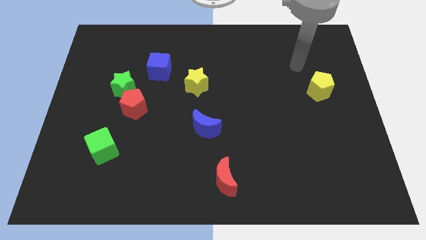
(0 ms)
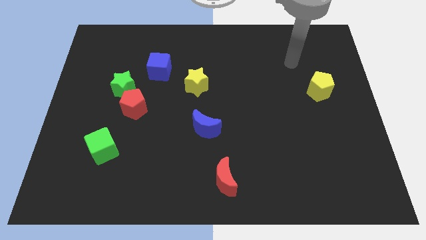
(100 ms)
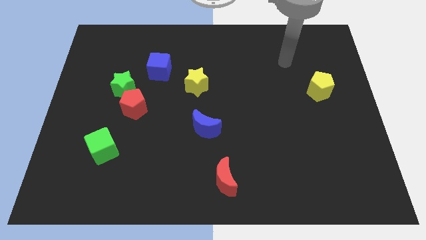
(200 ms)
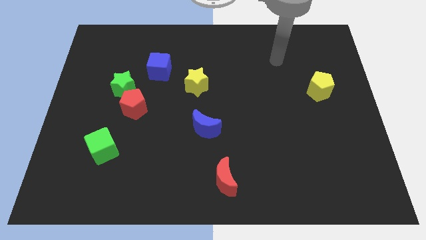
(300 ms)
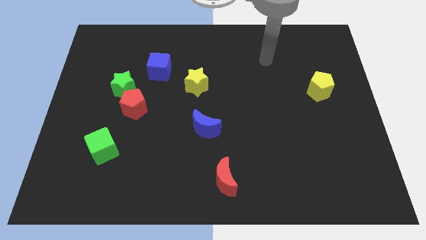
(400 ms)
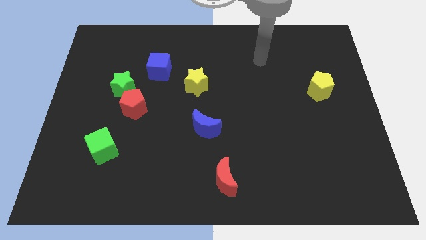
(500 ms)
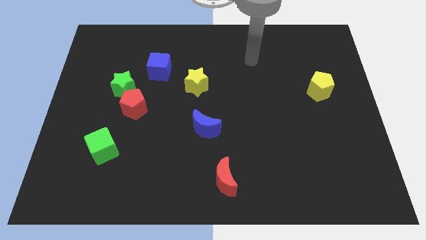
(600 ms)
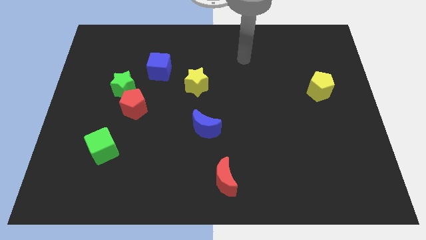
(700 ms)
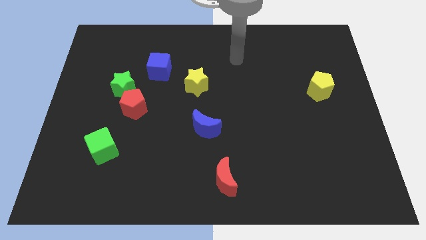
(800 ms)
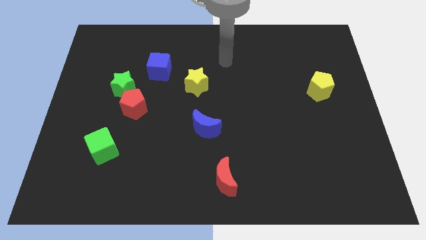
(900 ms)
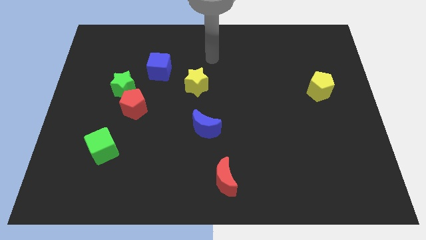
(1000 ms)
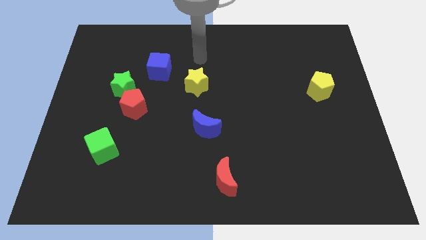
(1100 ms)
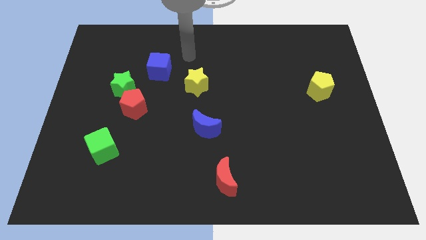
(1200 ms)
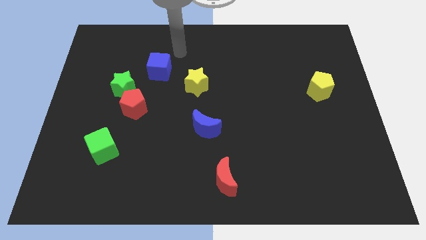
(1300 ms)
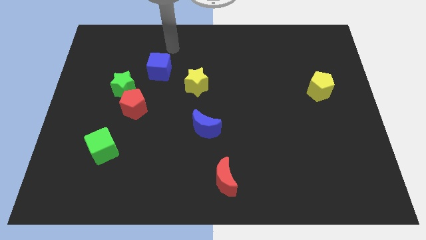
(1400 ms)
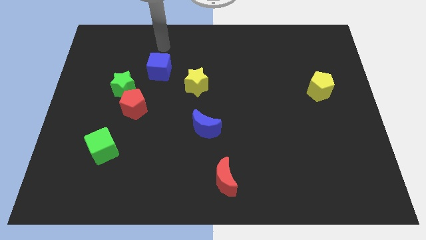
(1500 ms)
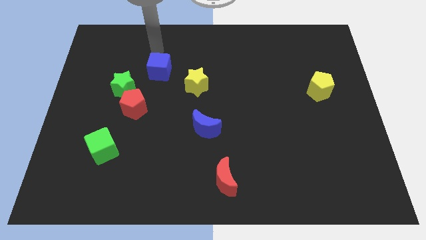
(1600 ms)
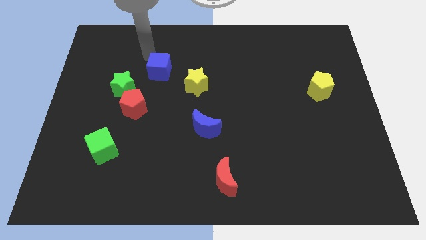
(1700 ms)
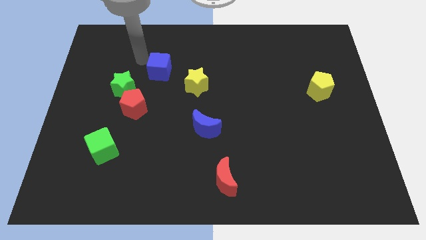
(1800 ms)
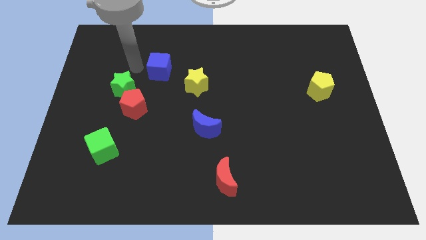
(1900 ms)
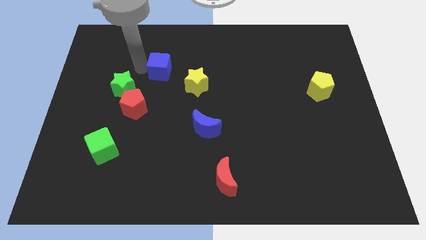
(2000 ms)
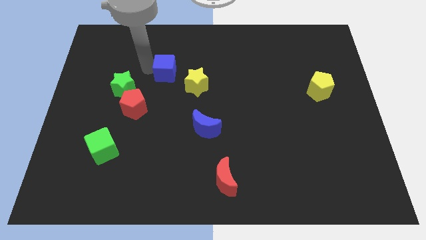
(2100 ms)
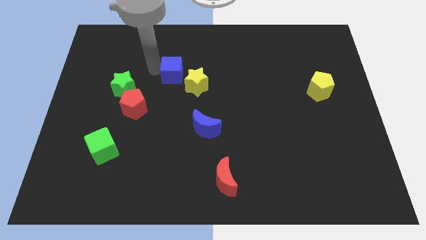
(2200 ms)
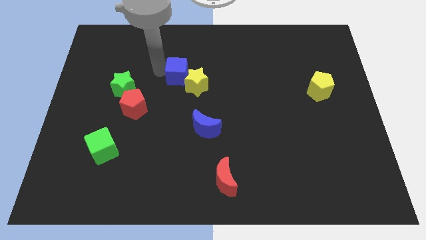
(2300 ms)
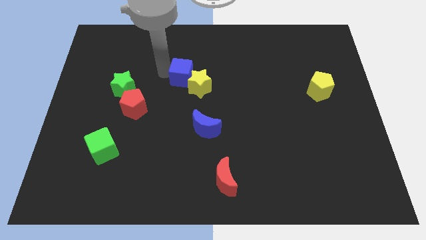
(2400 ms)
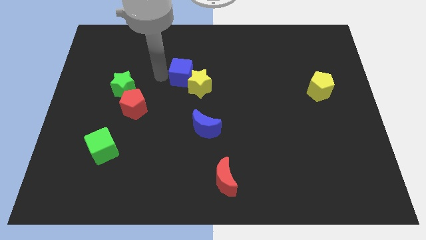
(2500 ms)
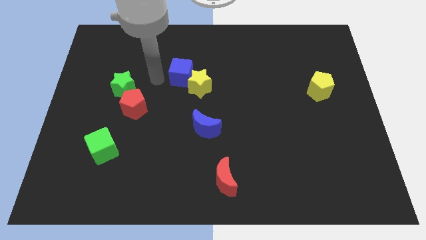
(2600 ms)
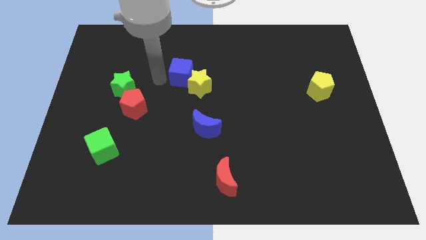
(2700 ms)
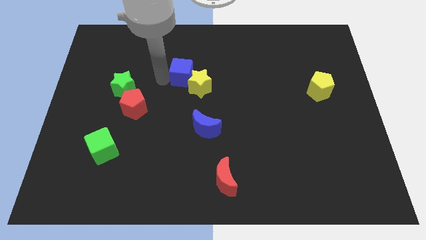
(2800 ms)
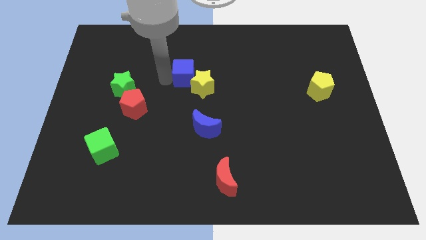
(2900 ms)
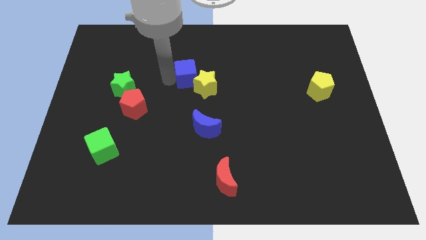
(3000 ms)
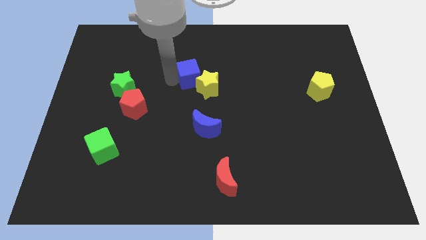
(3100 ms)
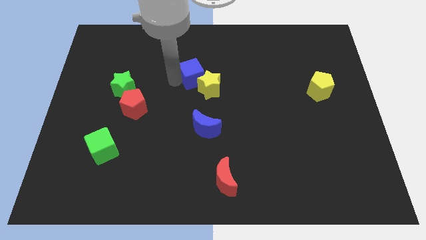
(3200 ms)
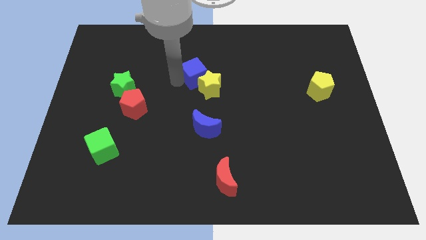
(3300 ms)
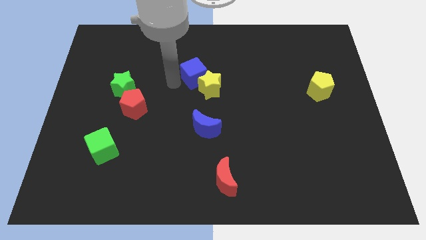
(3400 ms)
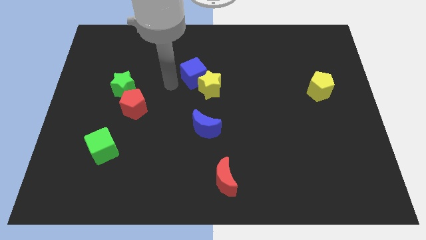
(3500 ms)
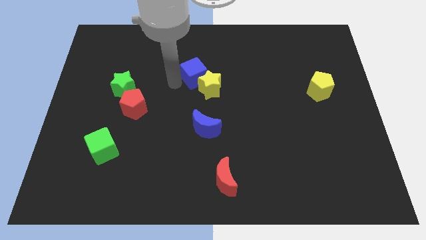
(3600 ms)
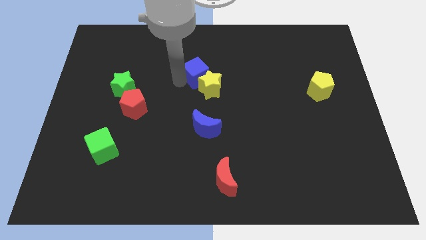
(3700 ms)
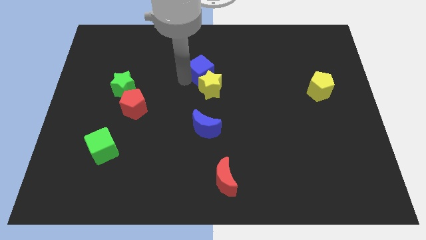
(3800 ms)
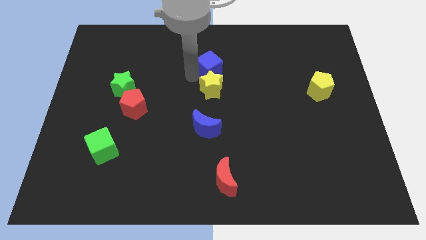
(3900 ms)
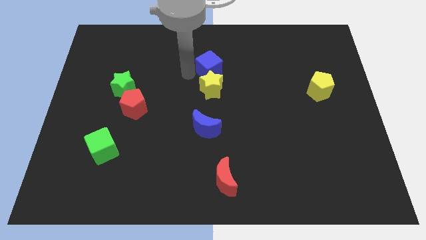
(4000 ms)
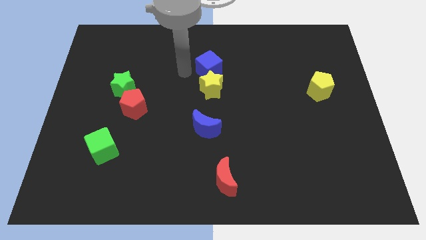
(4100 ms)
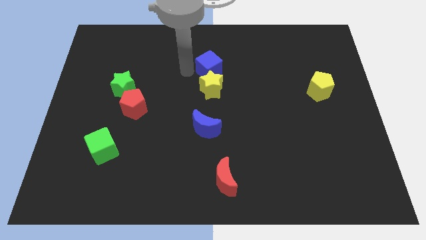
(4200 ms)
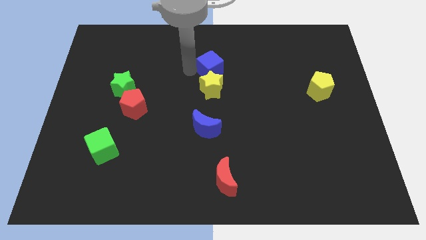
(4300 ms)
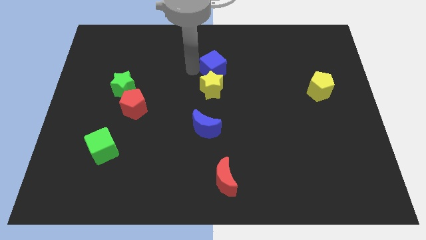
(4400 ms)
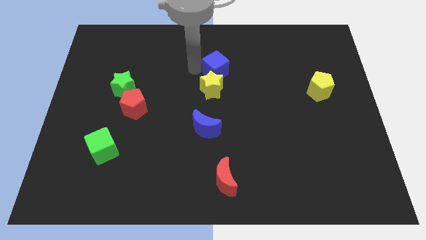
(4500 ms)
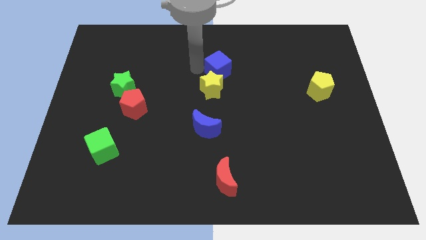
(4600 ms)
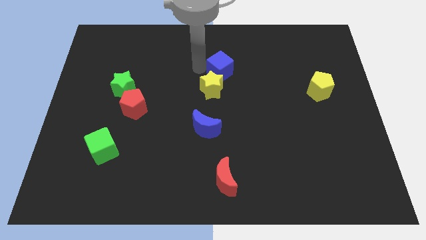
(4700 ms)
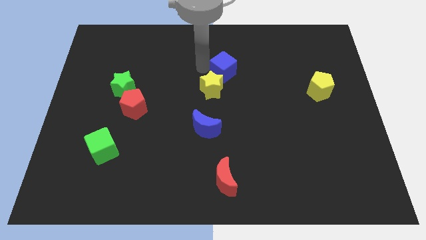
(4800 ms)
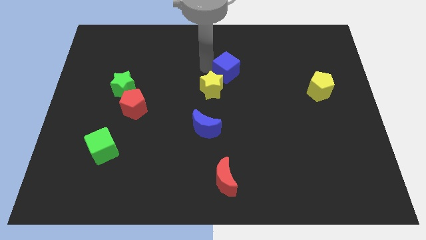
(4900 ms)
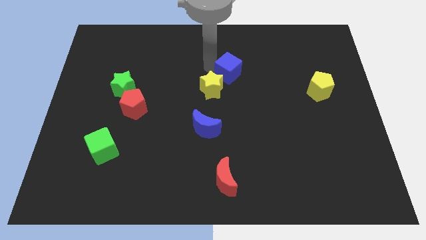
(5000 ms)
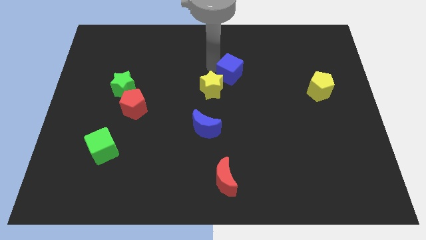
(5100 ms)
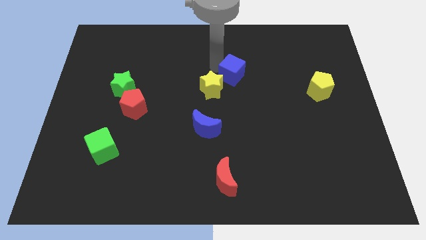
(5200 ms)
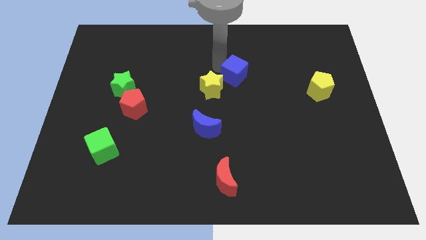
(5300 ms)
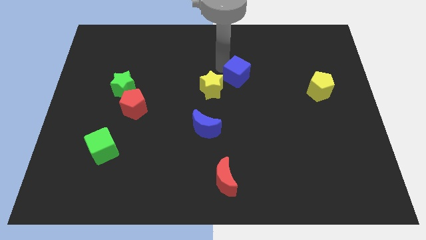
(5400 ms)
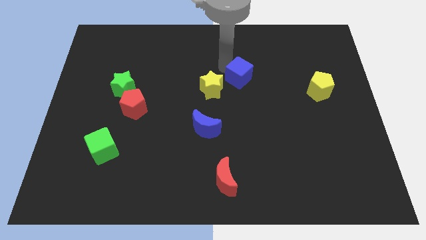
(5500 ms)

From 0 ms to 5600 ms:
slide the blue cube to the right

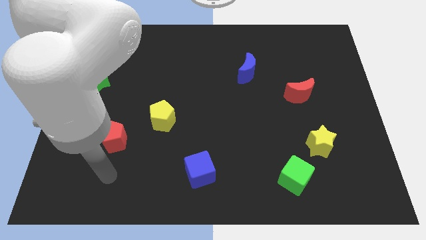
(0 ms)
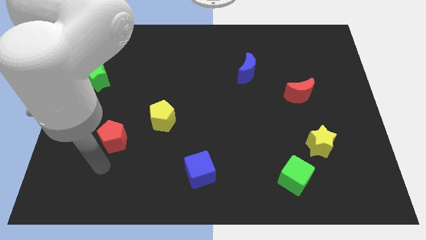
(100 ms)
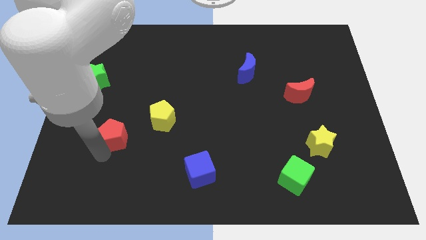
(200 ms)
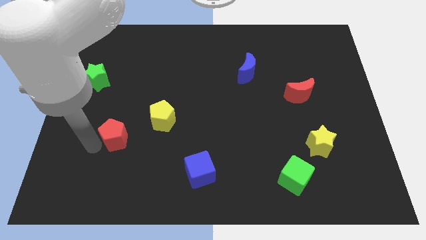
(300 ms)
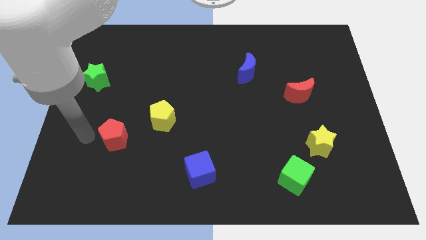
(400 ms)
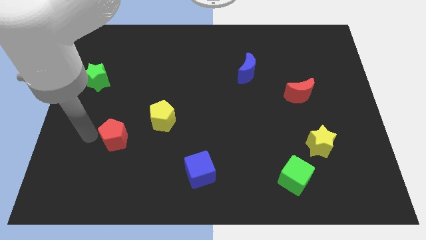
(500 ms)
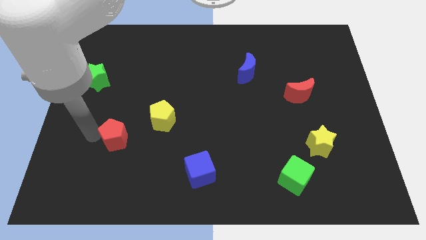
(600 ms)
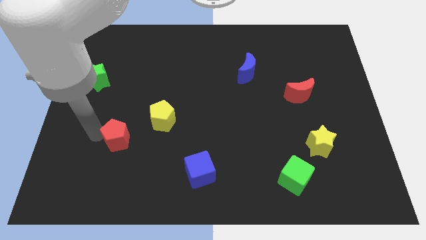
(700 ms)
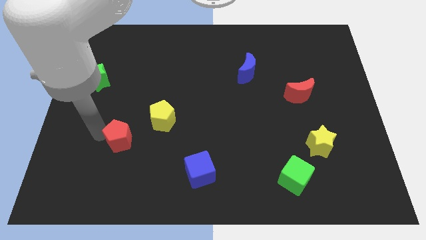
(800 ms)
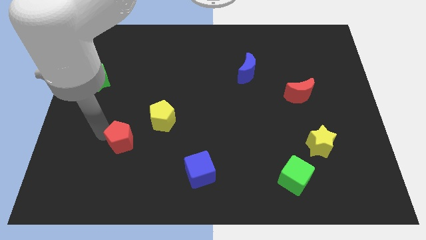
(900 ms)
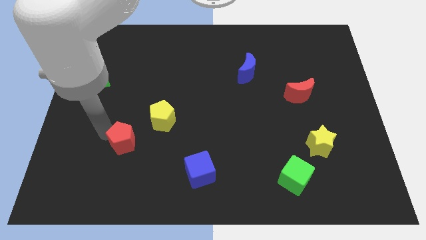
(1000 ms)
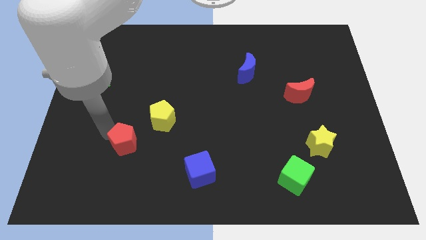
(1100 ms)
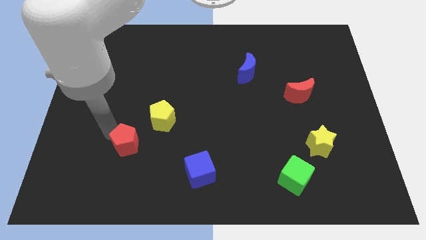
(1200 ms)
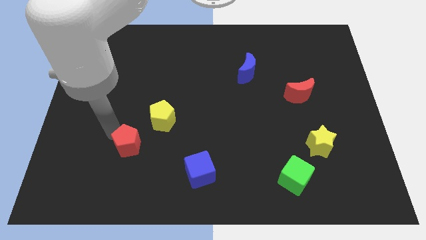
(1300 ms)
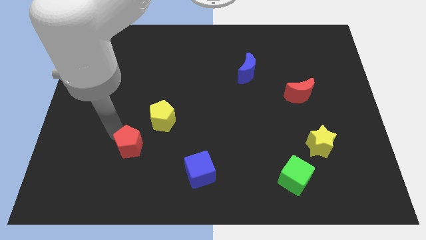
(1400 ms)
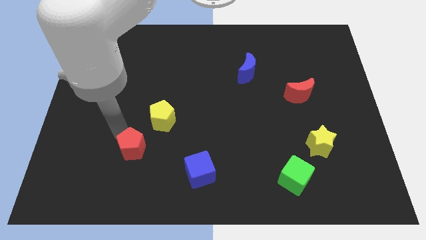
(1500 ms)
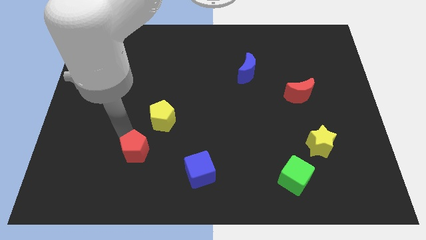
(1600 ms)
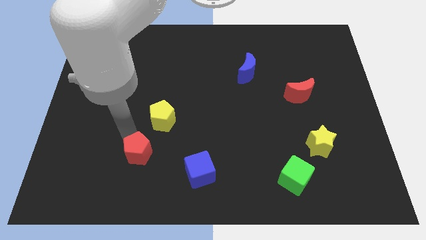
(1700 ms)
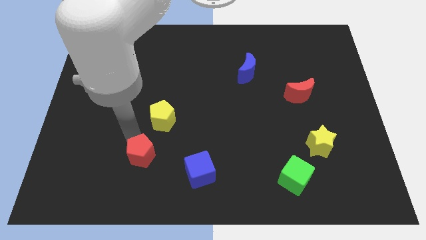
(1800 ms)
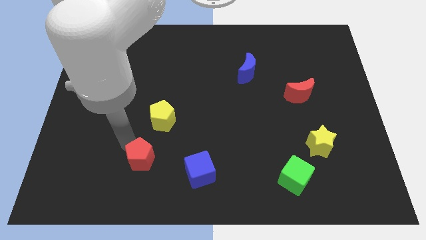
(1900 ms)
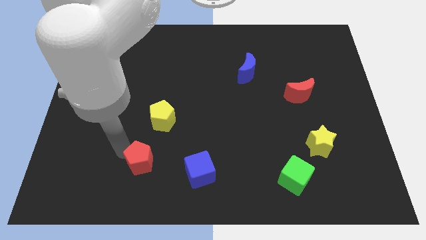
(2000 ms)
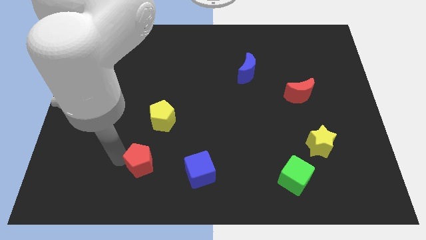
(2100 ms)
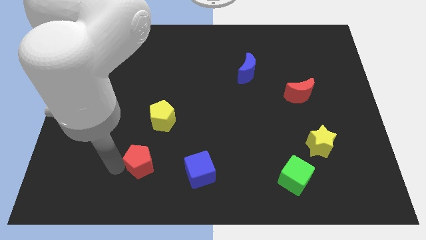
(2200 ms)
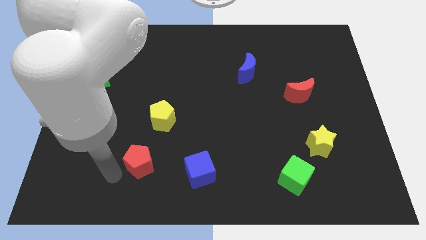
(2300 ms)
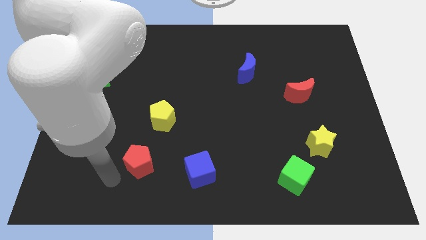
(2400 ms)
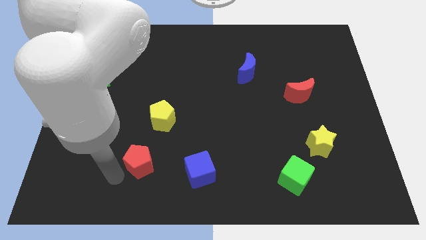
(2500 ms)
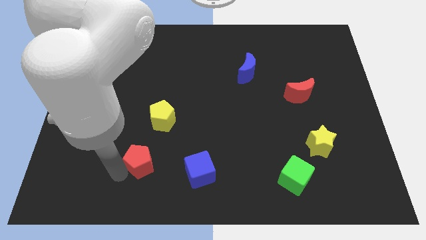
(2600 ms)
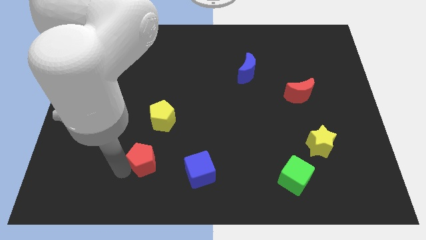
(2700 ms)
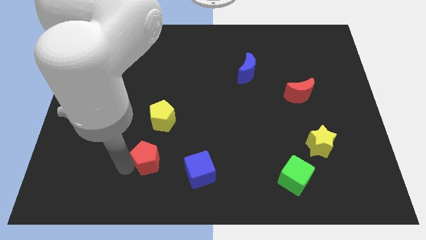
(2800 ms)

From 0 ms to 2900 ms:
slightly move the red pentagon right
